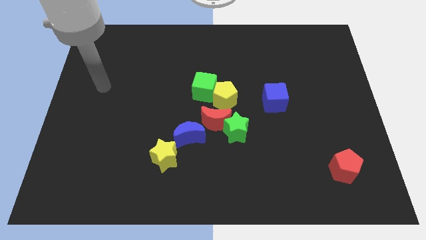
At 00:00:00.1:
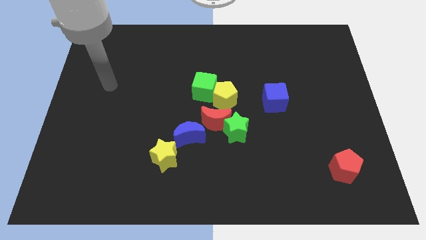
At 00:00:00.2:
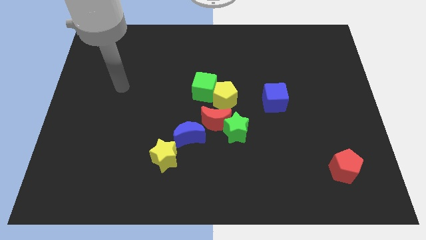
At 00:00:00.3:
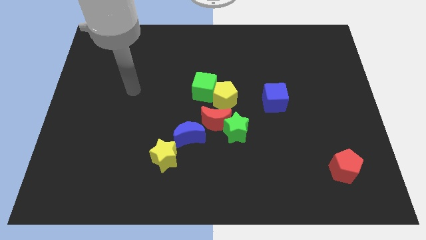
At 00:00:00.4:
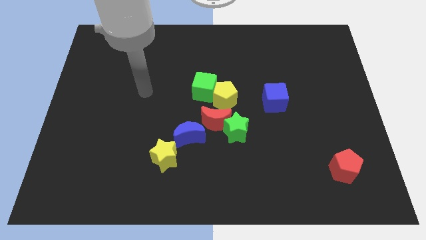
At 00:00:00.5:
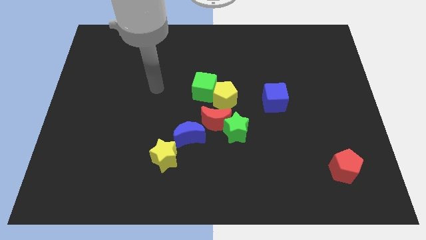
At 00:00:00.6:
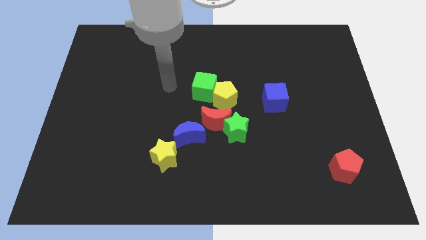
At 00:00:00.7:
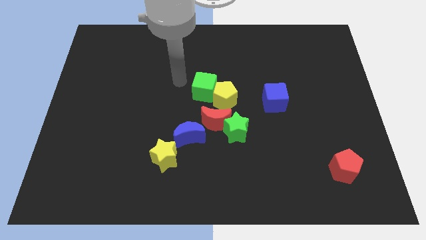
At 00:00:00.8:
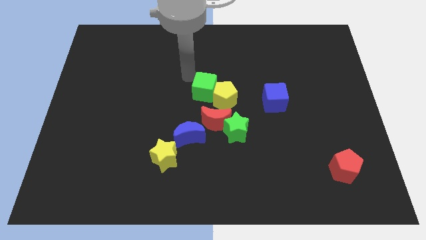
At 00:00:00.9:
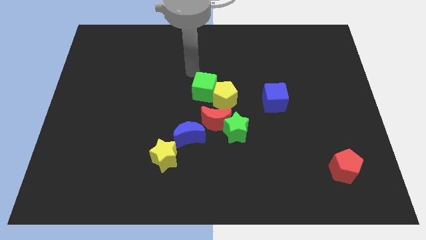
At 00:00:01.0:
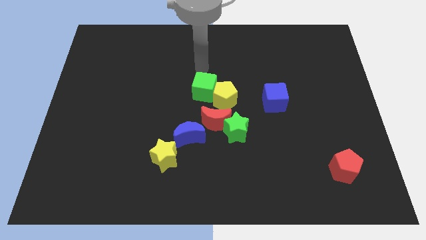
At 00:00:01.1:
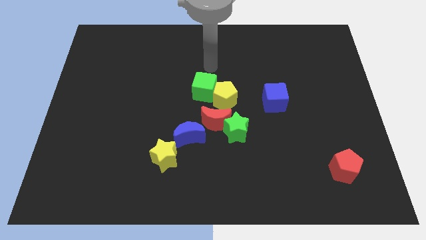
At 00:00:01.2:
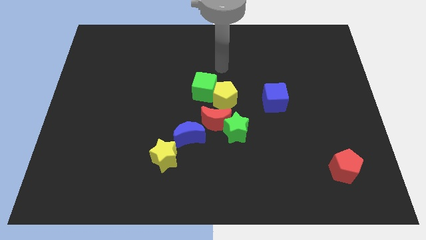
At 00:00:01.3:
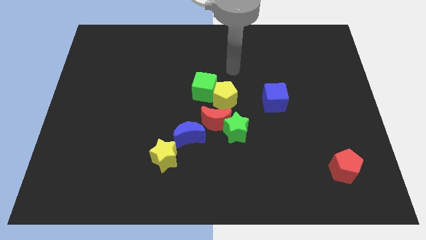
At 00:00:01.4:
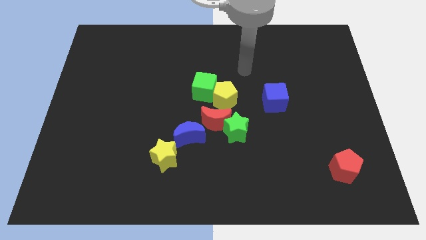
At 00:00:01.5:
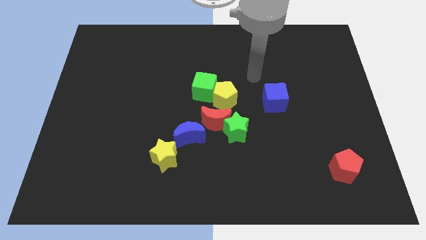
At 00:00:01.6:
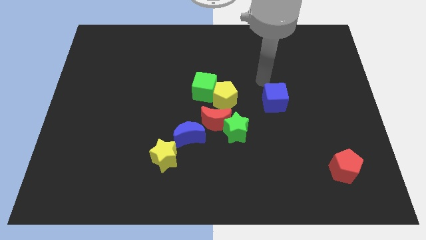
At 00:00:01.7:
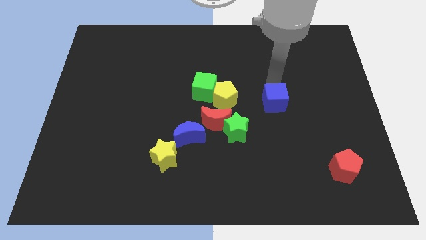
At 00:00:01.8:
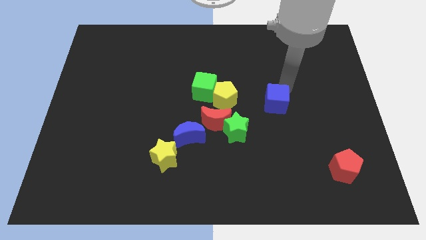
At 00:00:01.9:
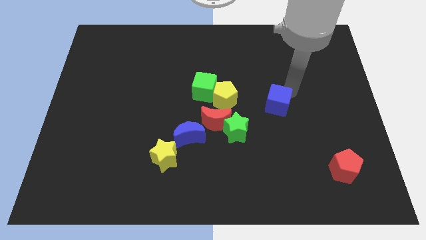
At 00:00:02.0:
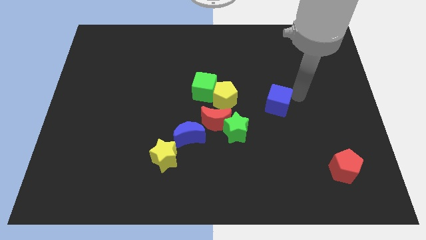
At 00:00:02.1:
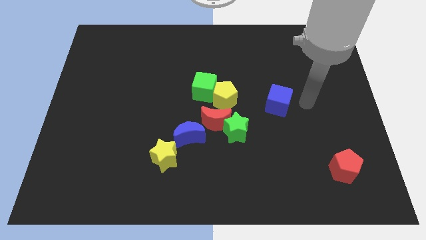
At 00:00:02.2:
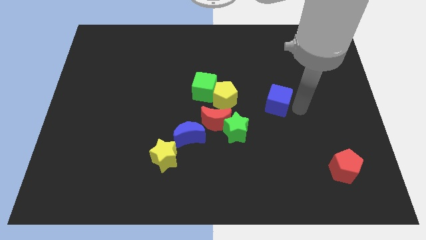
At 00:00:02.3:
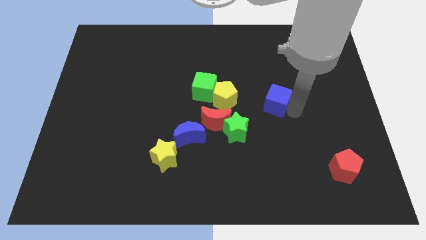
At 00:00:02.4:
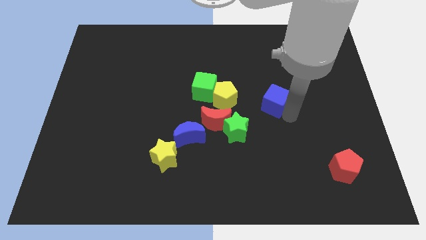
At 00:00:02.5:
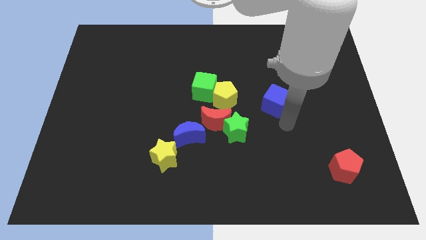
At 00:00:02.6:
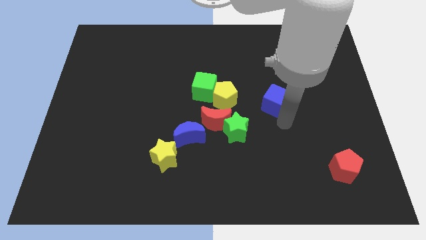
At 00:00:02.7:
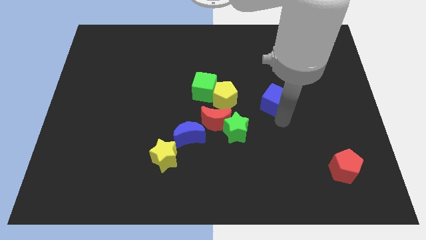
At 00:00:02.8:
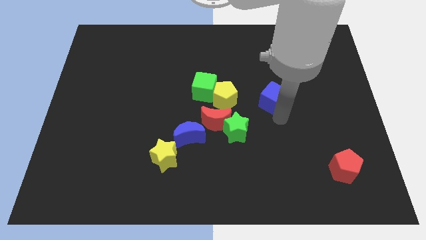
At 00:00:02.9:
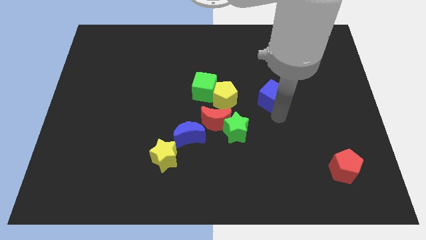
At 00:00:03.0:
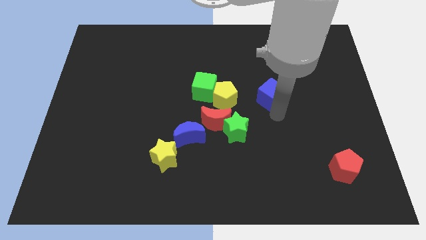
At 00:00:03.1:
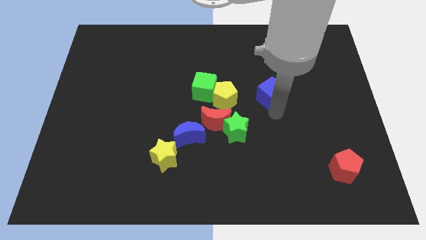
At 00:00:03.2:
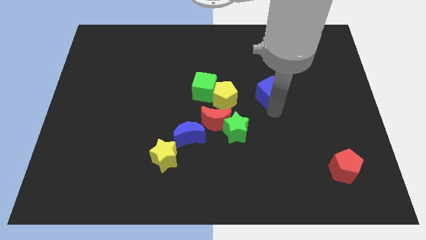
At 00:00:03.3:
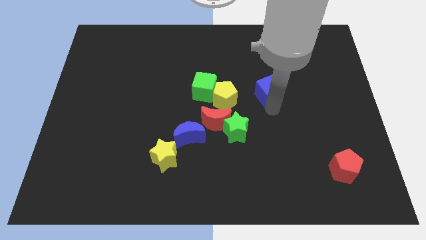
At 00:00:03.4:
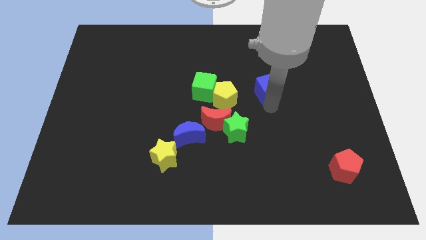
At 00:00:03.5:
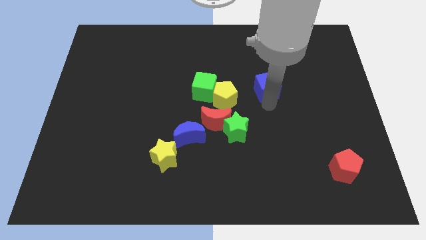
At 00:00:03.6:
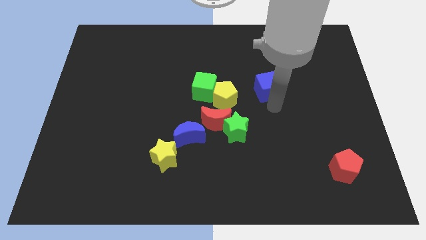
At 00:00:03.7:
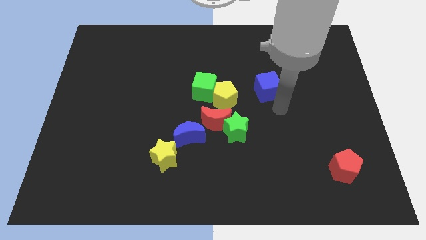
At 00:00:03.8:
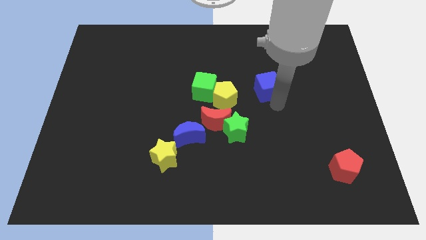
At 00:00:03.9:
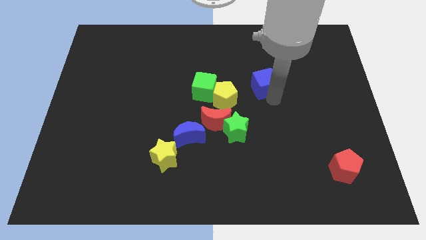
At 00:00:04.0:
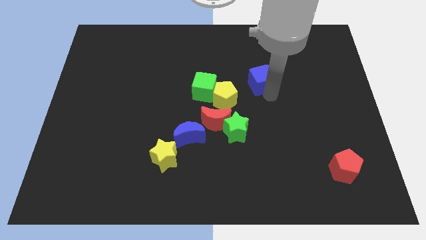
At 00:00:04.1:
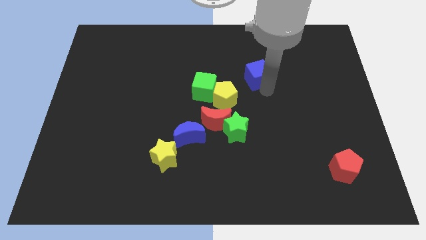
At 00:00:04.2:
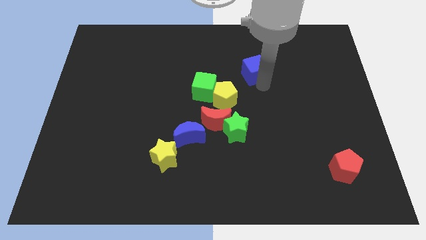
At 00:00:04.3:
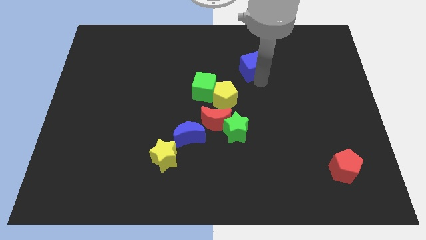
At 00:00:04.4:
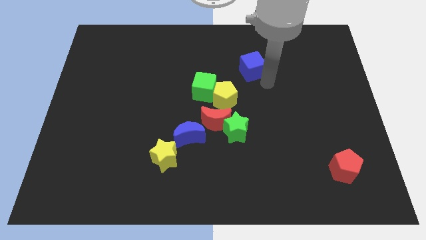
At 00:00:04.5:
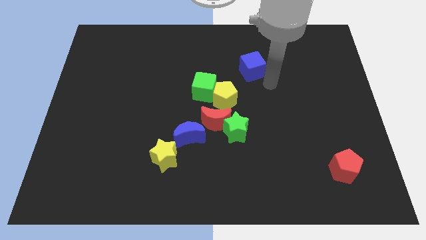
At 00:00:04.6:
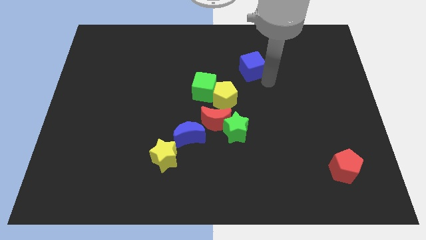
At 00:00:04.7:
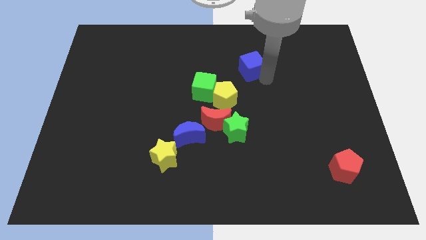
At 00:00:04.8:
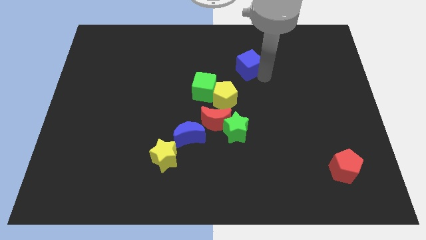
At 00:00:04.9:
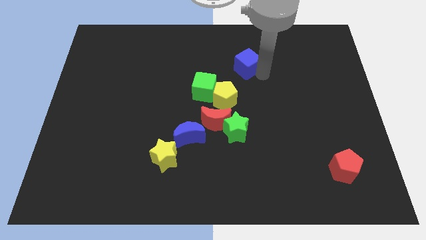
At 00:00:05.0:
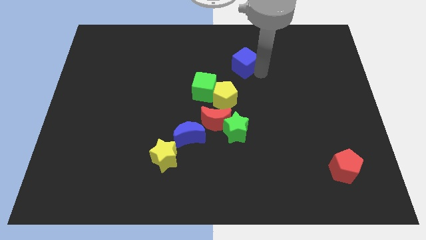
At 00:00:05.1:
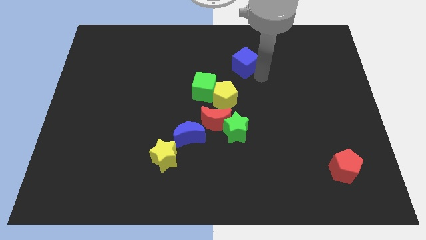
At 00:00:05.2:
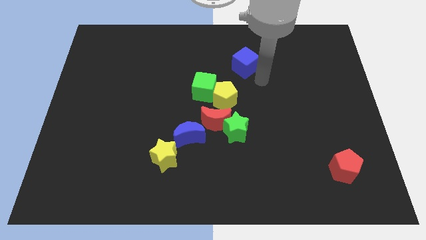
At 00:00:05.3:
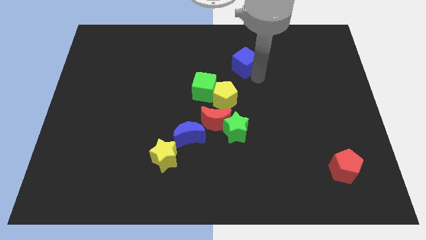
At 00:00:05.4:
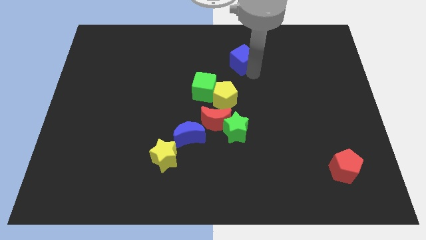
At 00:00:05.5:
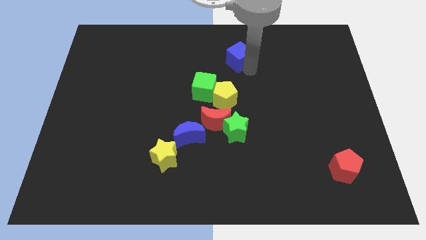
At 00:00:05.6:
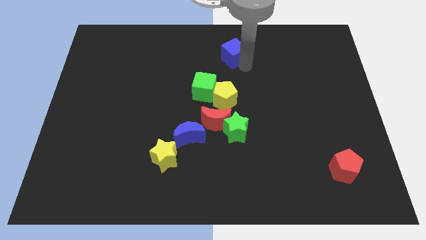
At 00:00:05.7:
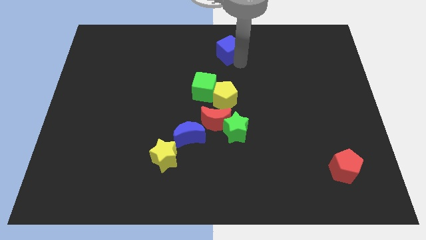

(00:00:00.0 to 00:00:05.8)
put the blue cube to the top

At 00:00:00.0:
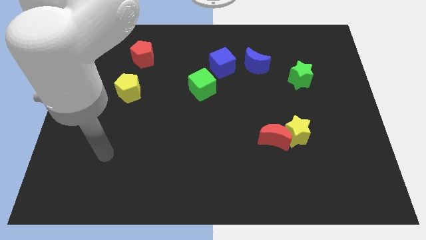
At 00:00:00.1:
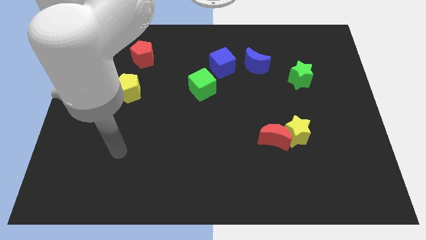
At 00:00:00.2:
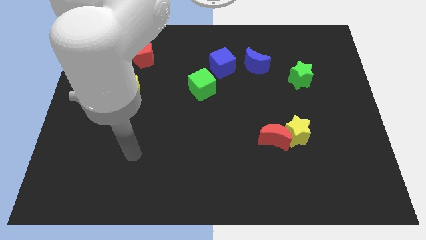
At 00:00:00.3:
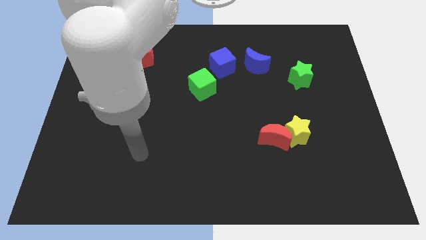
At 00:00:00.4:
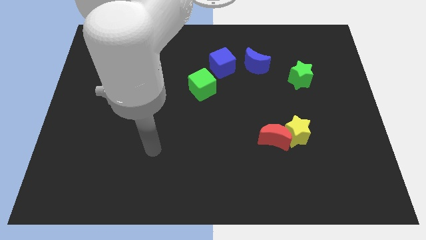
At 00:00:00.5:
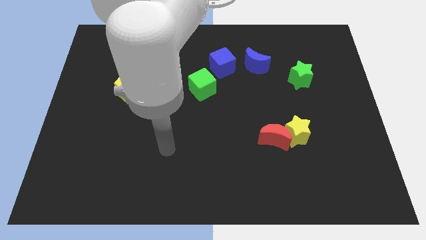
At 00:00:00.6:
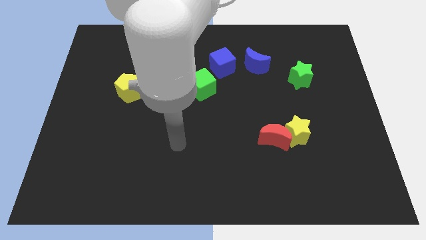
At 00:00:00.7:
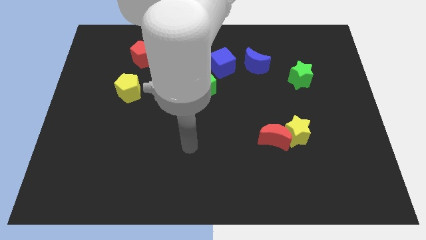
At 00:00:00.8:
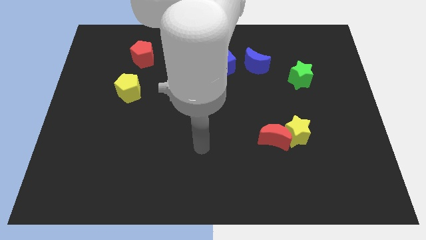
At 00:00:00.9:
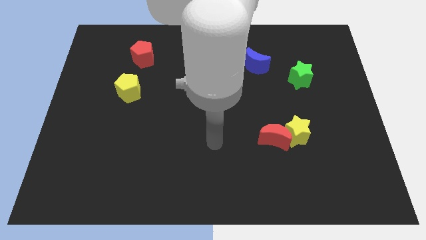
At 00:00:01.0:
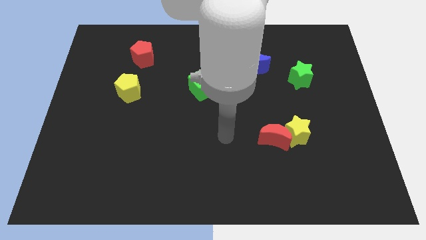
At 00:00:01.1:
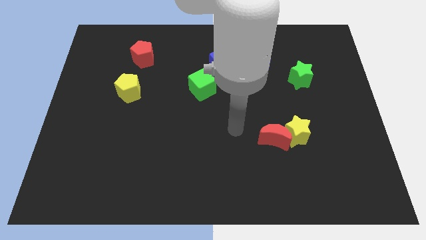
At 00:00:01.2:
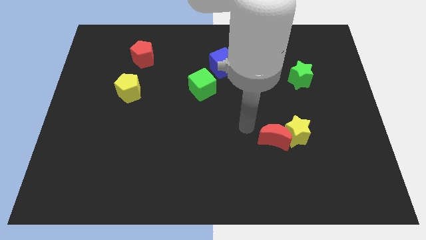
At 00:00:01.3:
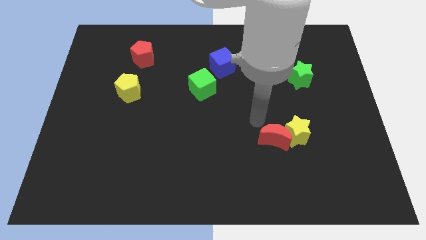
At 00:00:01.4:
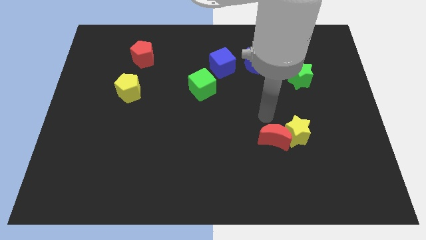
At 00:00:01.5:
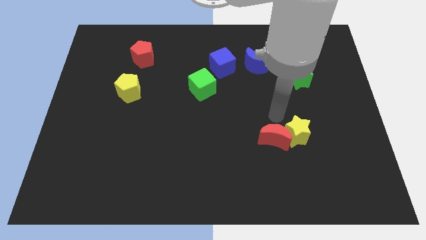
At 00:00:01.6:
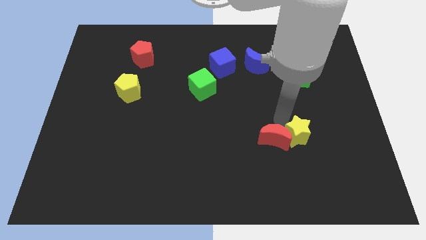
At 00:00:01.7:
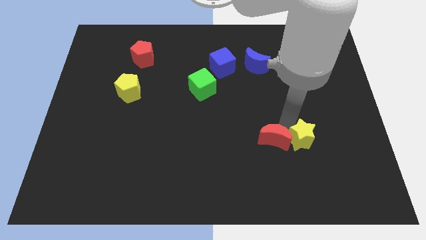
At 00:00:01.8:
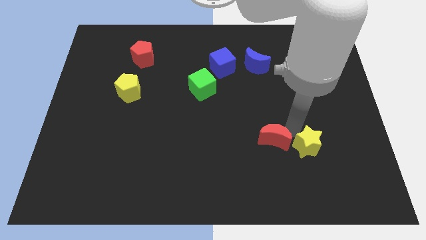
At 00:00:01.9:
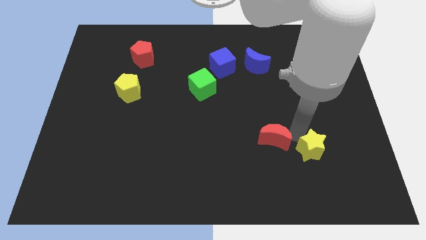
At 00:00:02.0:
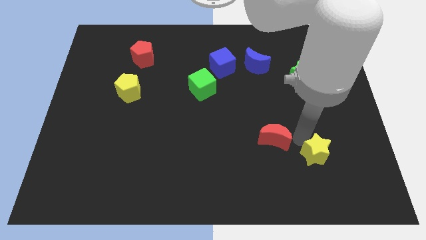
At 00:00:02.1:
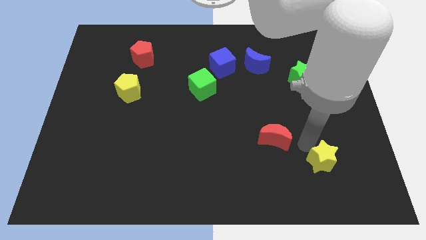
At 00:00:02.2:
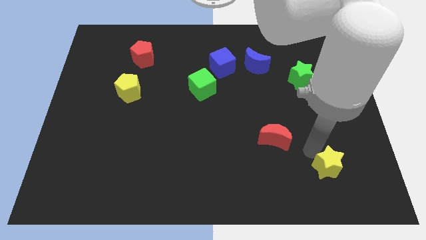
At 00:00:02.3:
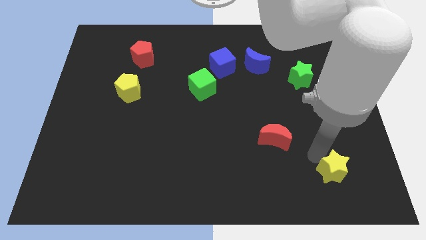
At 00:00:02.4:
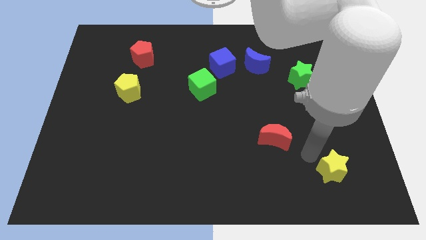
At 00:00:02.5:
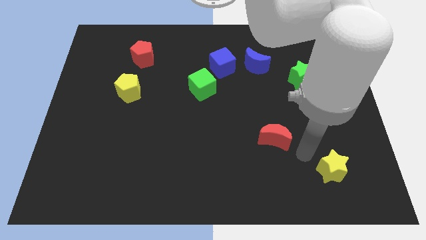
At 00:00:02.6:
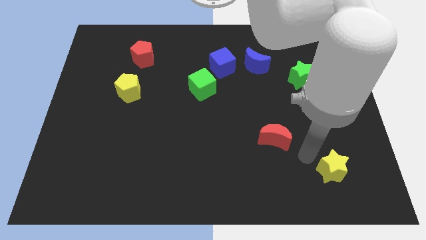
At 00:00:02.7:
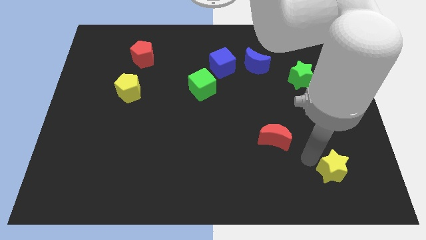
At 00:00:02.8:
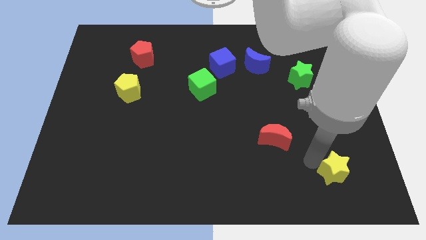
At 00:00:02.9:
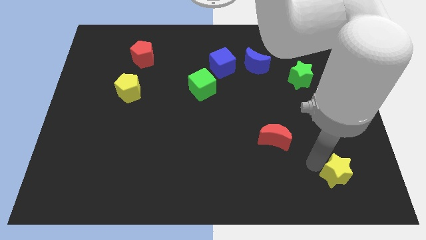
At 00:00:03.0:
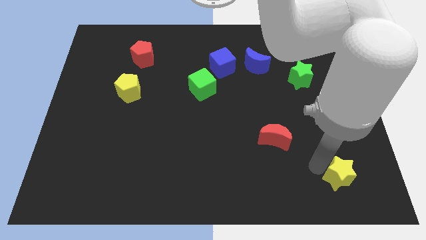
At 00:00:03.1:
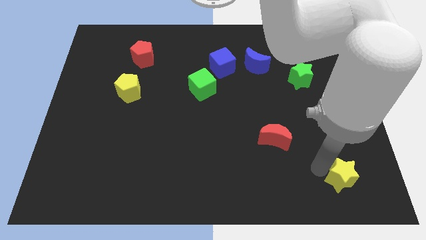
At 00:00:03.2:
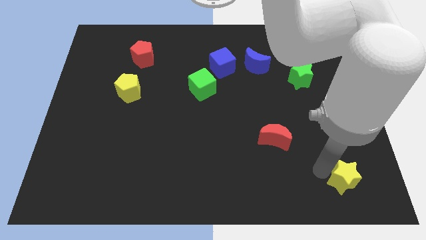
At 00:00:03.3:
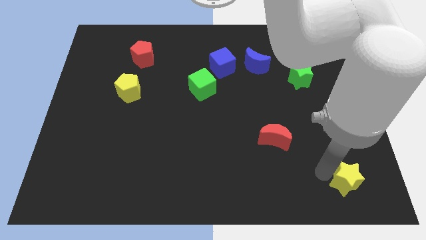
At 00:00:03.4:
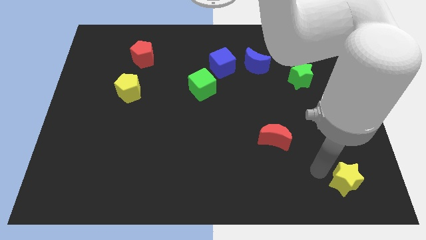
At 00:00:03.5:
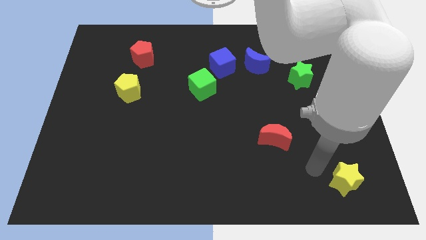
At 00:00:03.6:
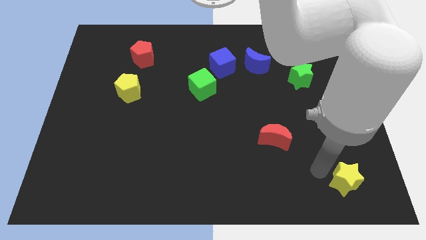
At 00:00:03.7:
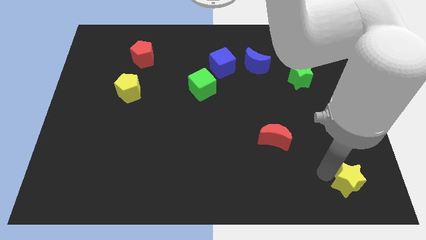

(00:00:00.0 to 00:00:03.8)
slide the yellow star to the bottom right
